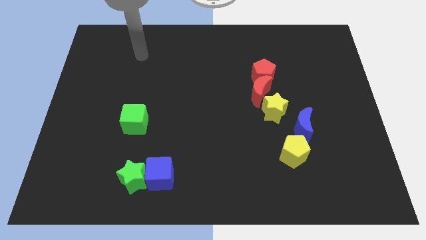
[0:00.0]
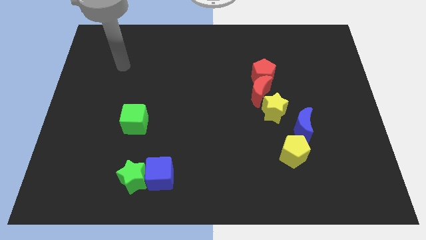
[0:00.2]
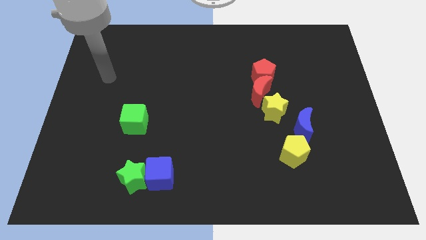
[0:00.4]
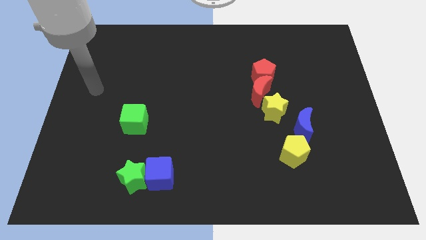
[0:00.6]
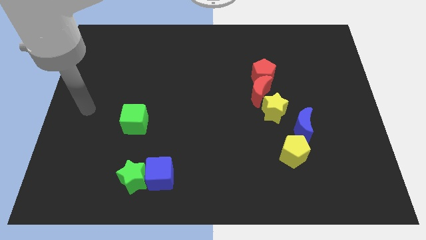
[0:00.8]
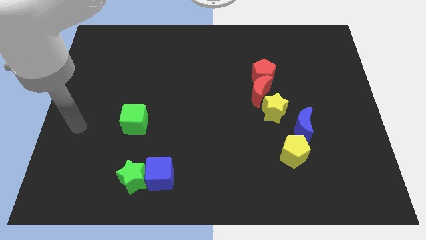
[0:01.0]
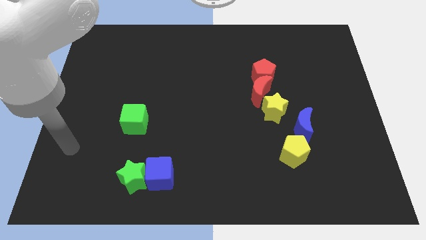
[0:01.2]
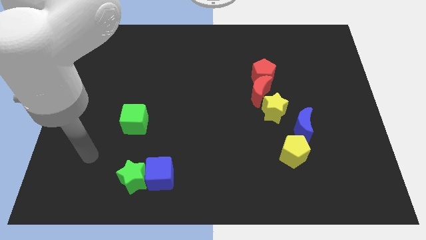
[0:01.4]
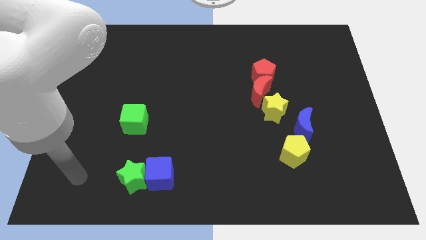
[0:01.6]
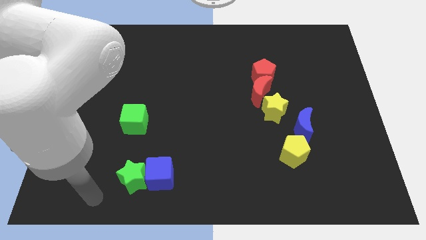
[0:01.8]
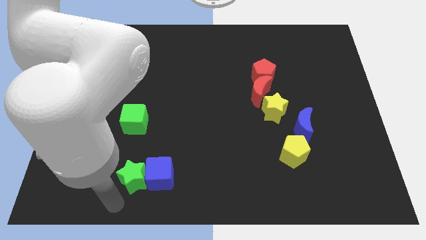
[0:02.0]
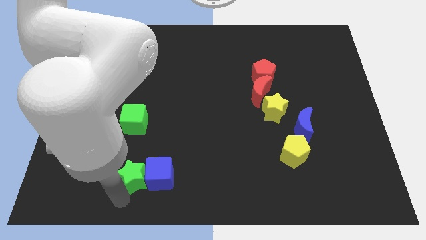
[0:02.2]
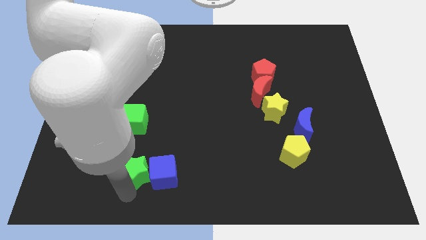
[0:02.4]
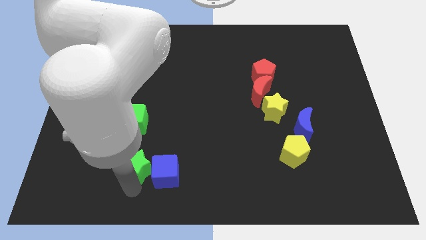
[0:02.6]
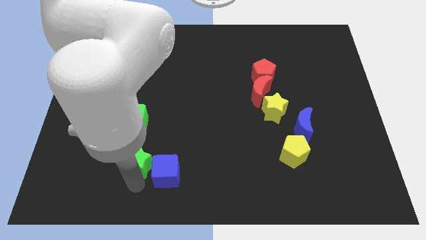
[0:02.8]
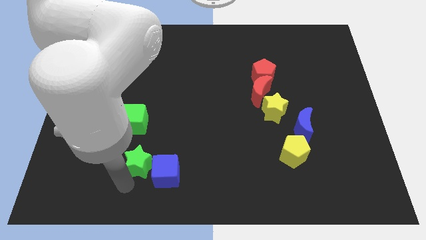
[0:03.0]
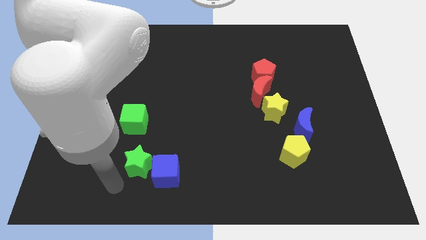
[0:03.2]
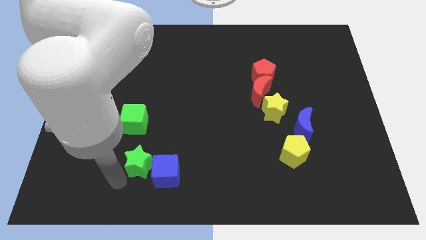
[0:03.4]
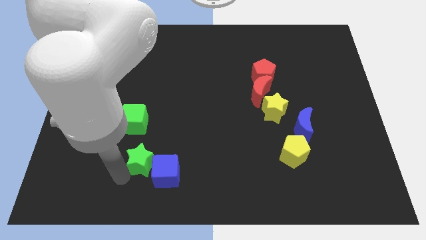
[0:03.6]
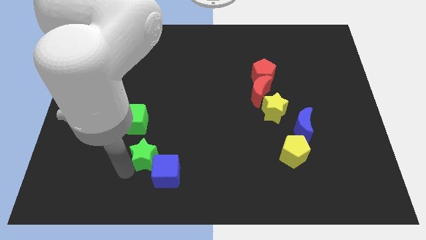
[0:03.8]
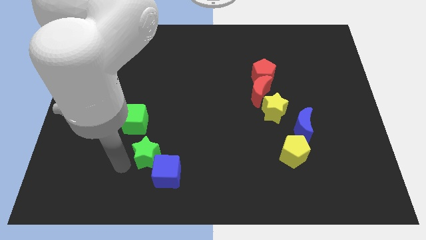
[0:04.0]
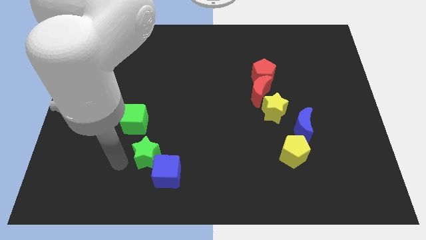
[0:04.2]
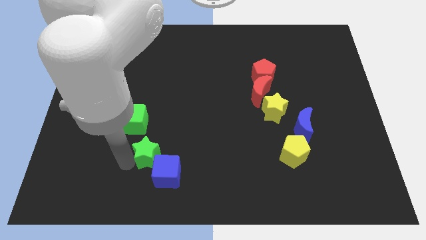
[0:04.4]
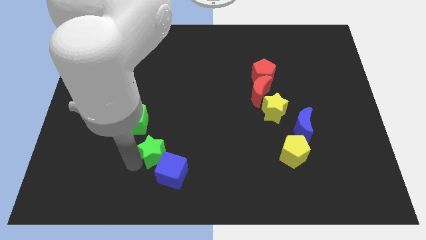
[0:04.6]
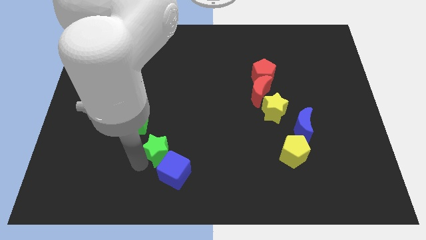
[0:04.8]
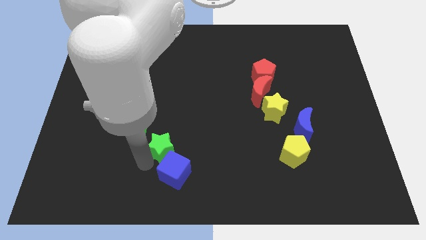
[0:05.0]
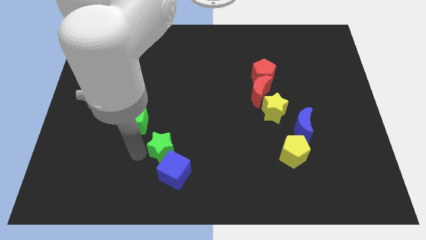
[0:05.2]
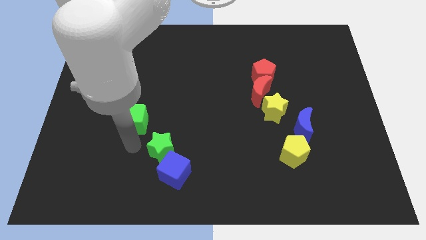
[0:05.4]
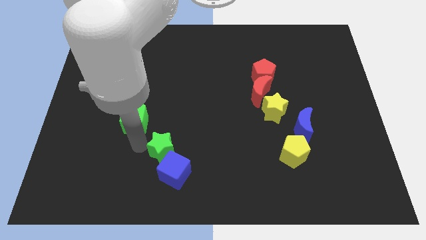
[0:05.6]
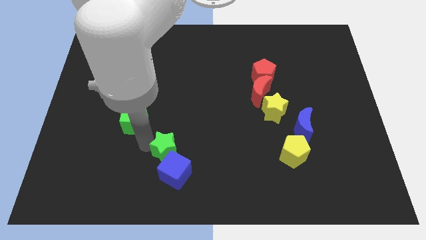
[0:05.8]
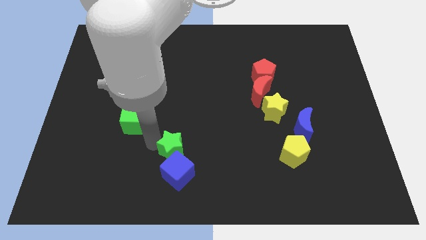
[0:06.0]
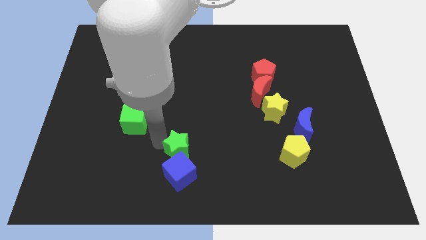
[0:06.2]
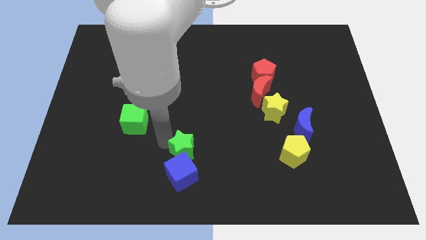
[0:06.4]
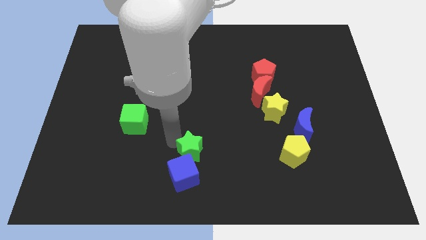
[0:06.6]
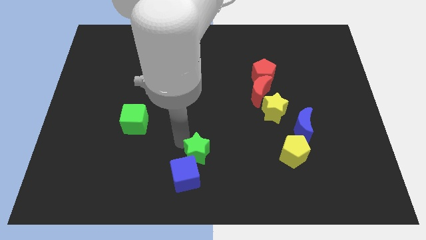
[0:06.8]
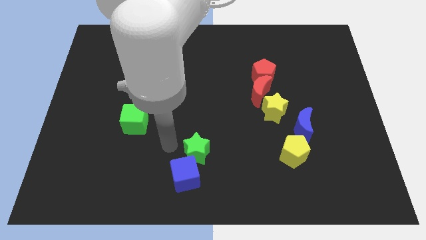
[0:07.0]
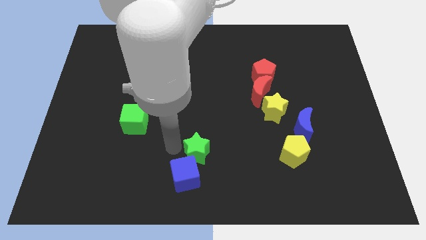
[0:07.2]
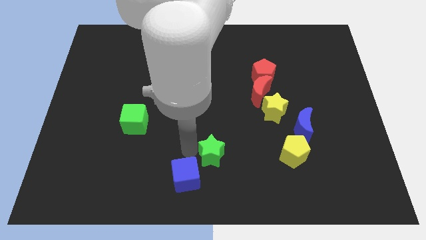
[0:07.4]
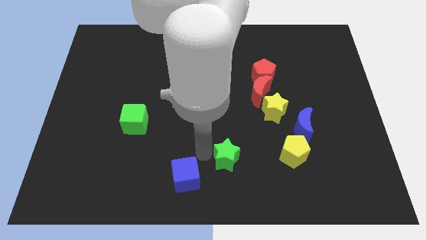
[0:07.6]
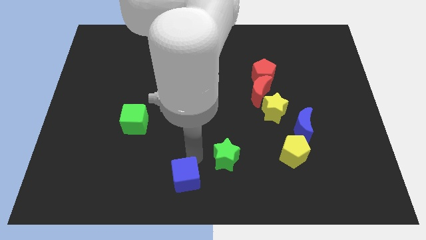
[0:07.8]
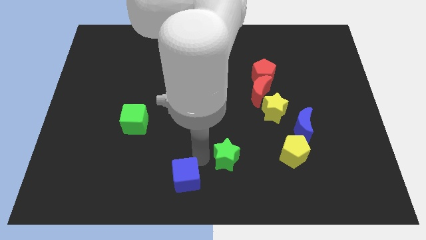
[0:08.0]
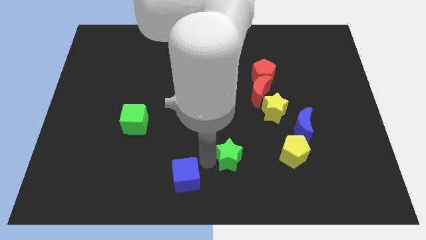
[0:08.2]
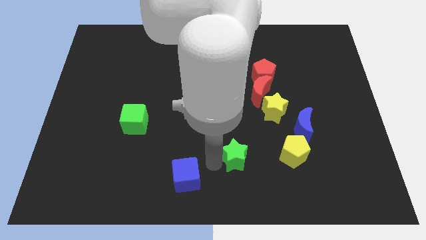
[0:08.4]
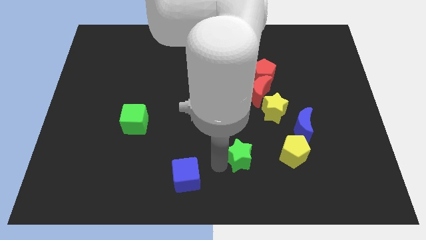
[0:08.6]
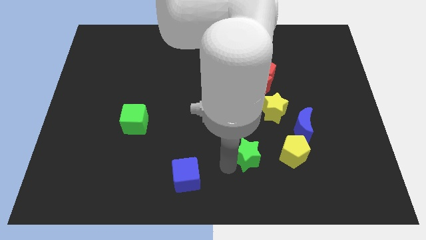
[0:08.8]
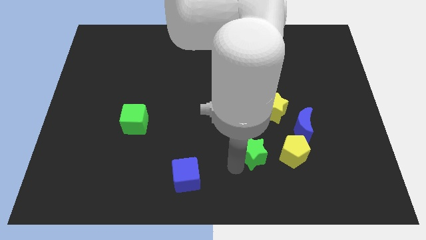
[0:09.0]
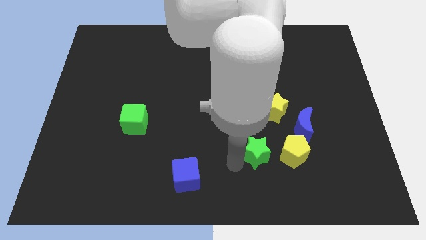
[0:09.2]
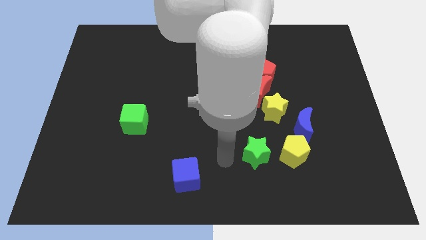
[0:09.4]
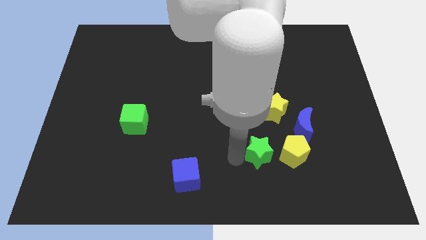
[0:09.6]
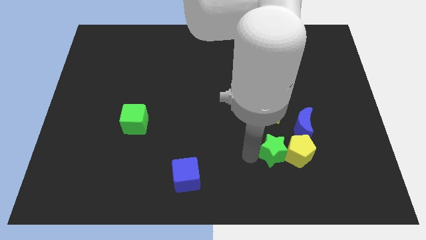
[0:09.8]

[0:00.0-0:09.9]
put the green star next to the yellow pentagon

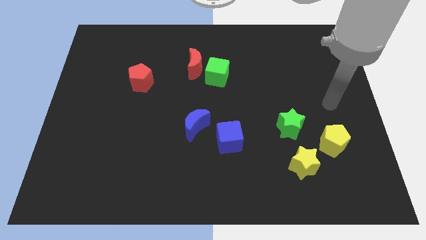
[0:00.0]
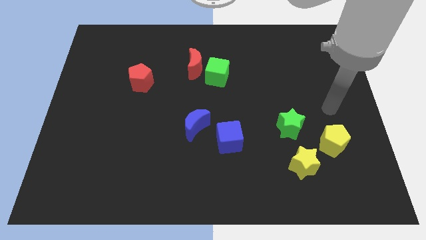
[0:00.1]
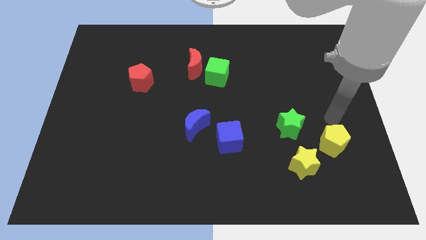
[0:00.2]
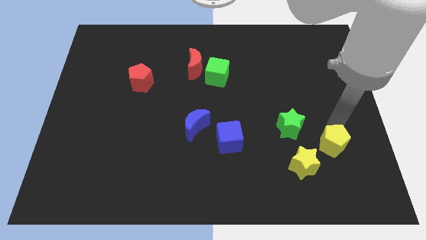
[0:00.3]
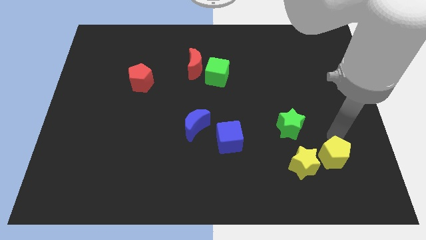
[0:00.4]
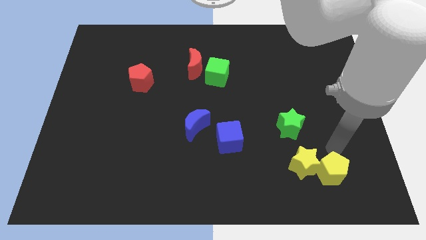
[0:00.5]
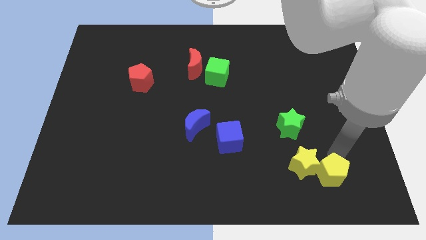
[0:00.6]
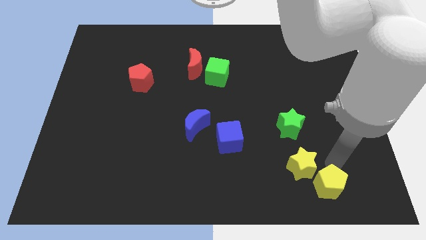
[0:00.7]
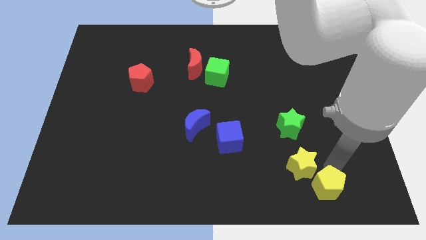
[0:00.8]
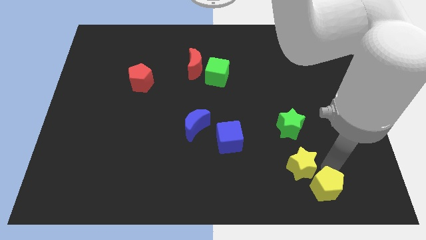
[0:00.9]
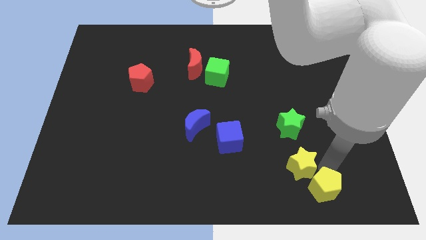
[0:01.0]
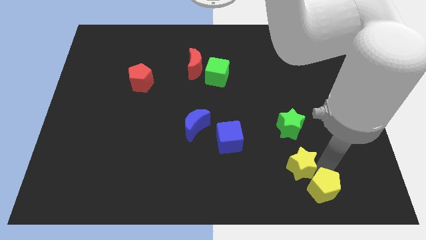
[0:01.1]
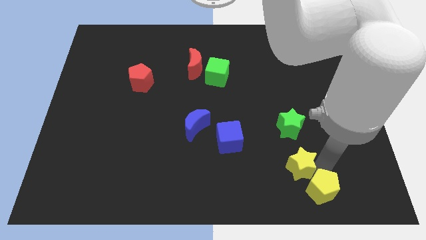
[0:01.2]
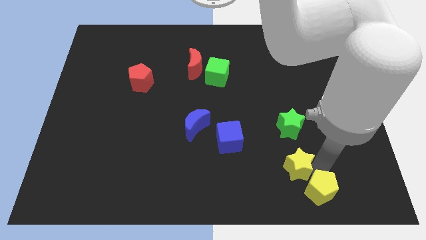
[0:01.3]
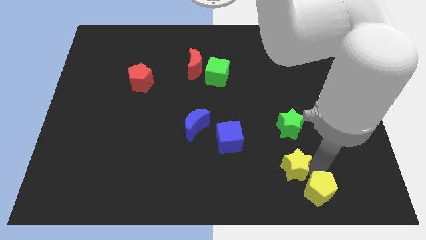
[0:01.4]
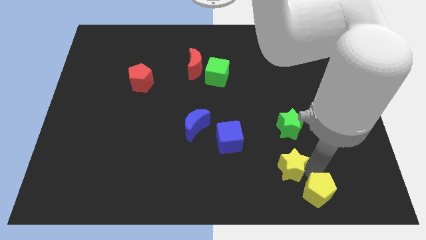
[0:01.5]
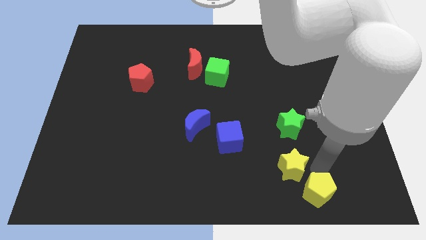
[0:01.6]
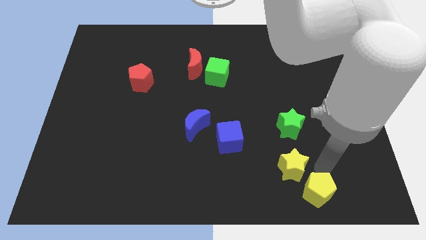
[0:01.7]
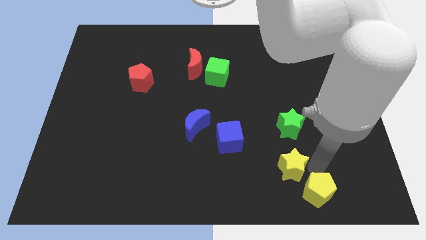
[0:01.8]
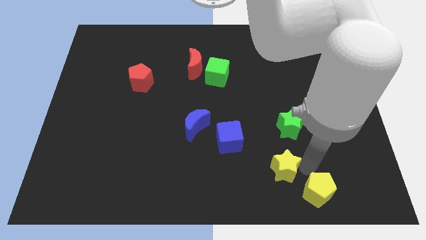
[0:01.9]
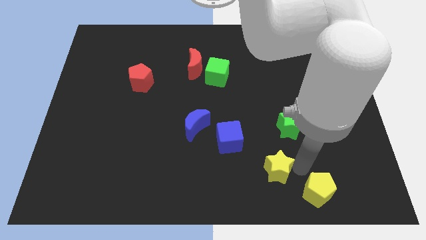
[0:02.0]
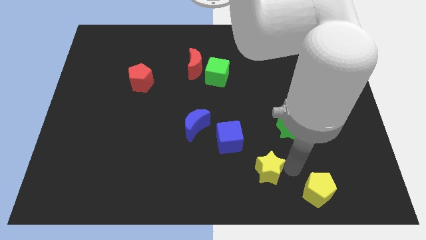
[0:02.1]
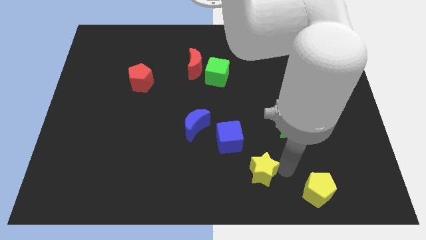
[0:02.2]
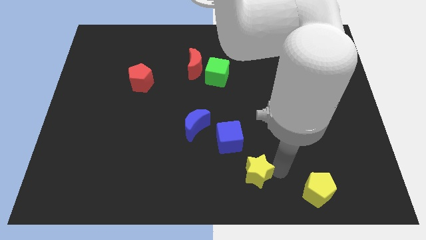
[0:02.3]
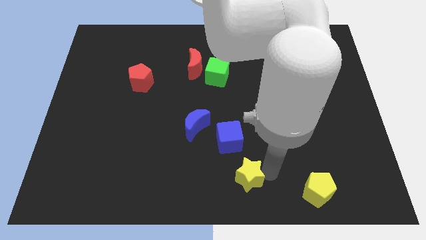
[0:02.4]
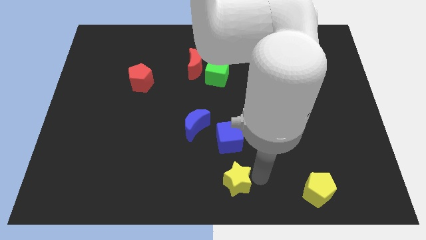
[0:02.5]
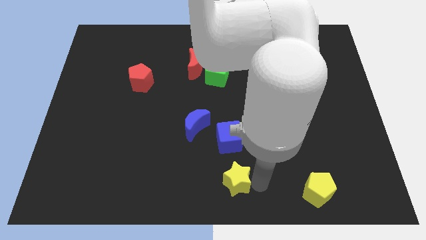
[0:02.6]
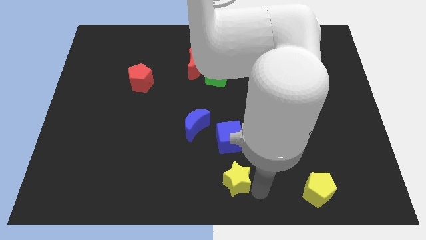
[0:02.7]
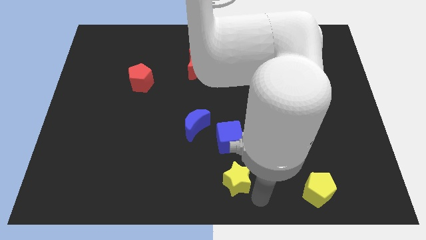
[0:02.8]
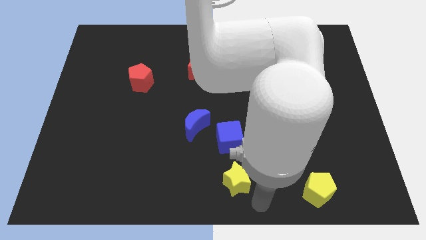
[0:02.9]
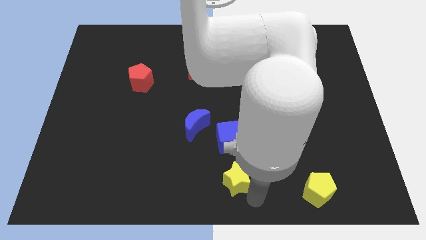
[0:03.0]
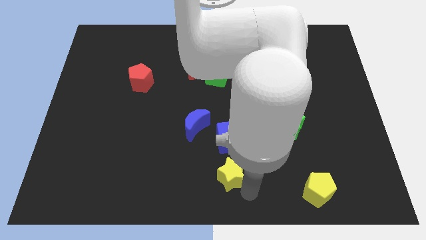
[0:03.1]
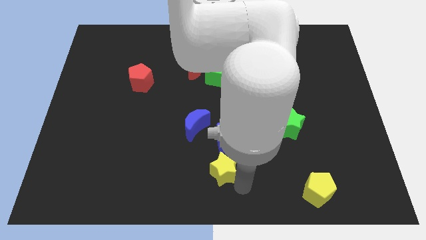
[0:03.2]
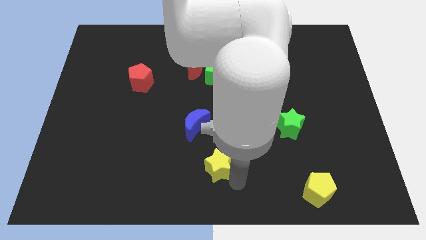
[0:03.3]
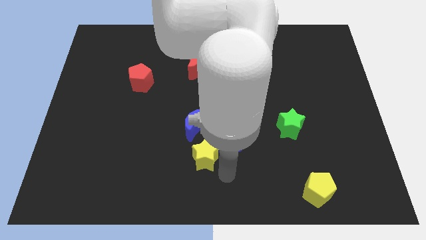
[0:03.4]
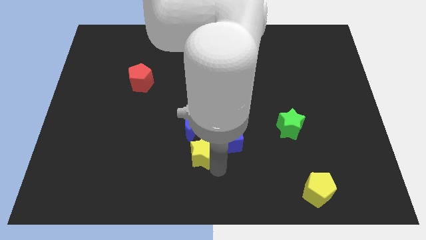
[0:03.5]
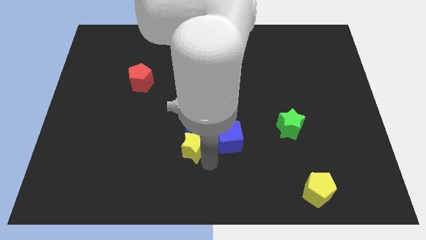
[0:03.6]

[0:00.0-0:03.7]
push the yellow star towards the blue moon
